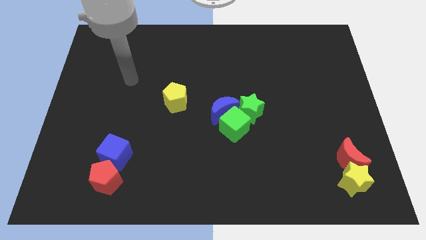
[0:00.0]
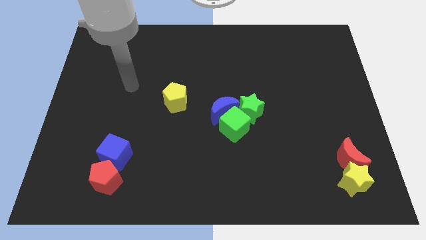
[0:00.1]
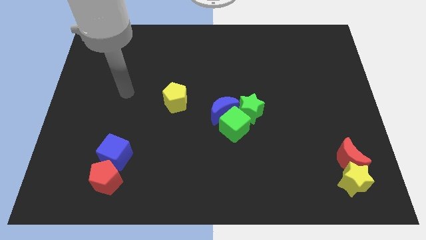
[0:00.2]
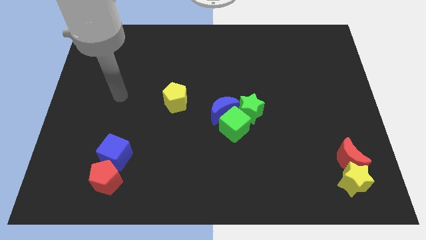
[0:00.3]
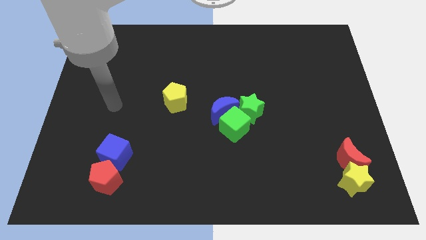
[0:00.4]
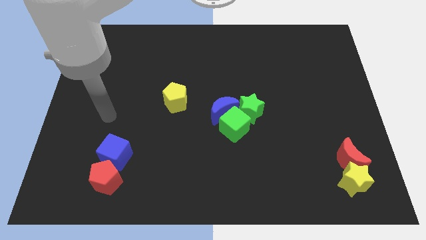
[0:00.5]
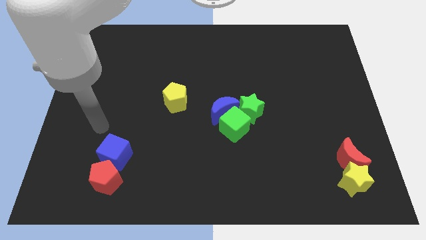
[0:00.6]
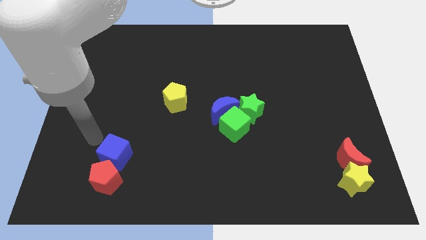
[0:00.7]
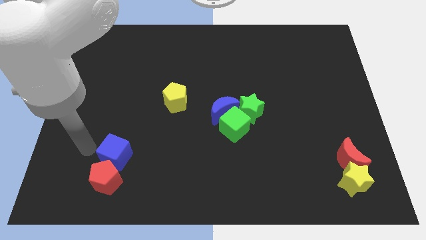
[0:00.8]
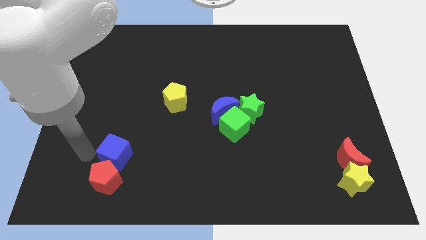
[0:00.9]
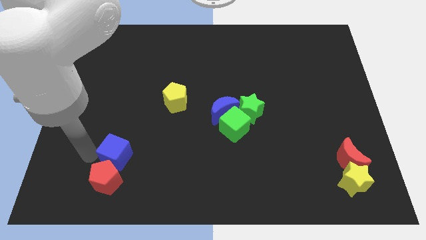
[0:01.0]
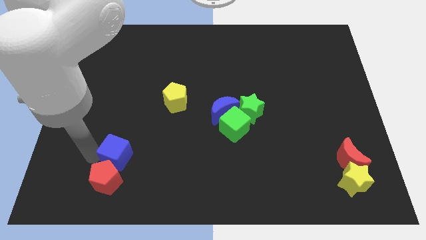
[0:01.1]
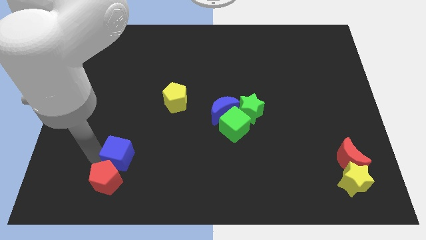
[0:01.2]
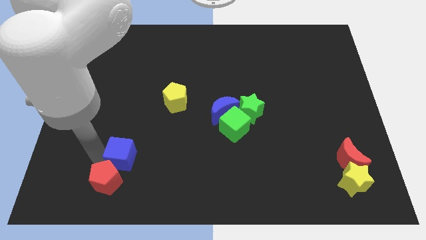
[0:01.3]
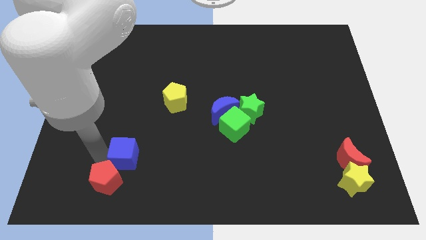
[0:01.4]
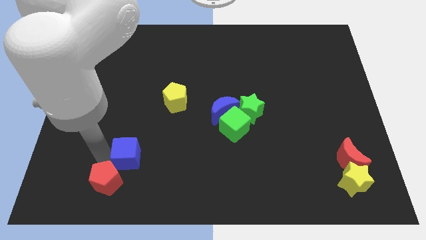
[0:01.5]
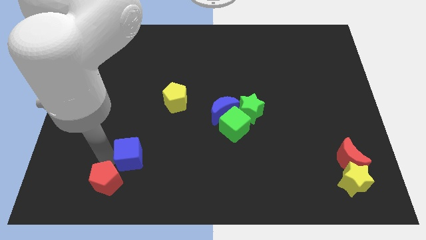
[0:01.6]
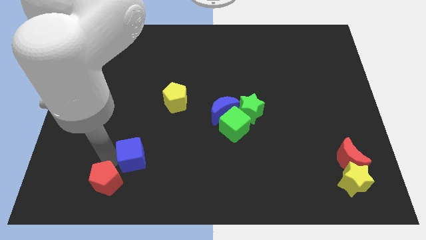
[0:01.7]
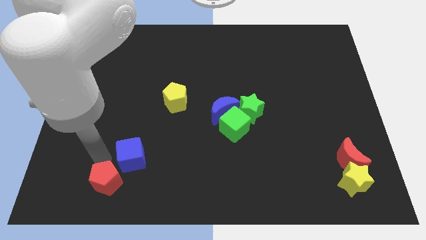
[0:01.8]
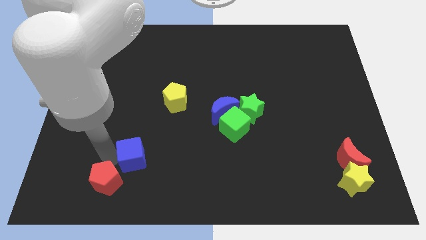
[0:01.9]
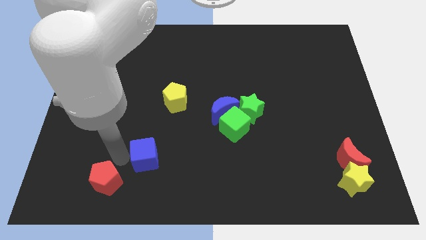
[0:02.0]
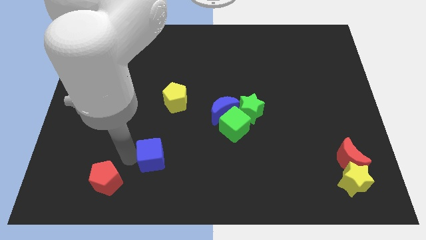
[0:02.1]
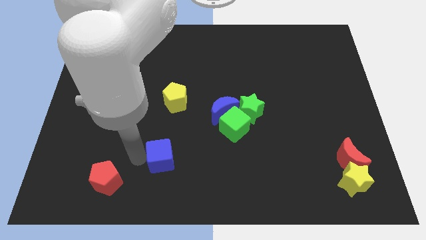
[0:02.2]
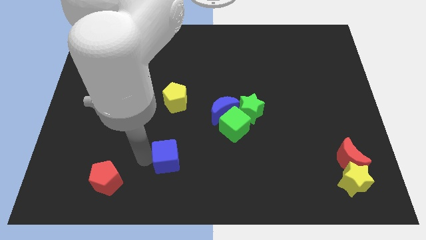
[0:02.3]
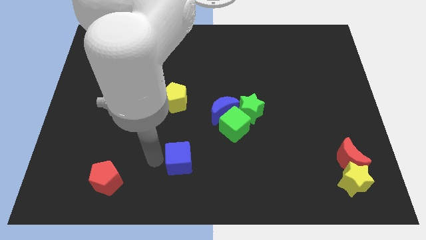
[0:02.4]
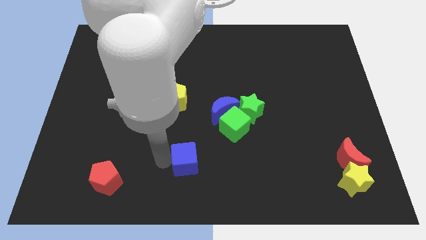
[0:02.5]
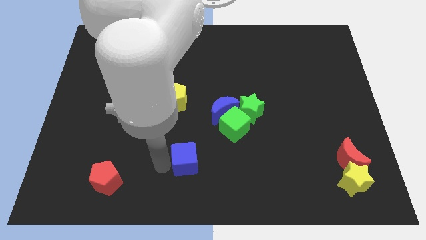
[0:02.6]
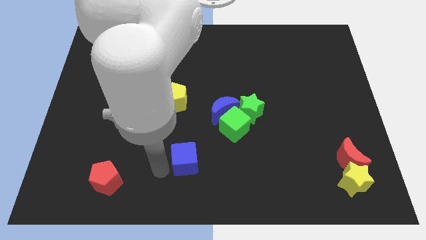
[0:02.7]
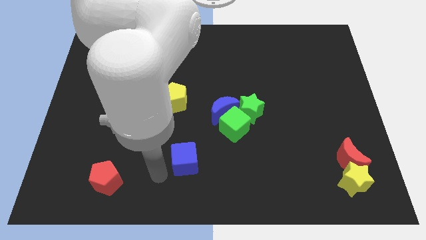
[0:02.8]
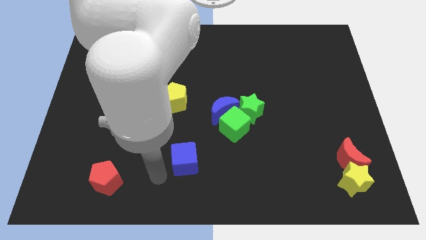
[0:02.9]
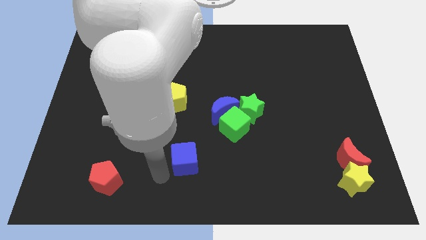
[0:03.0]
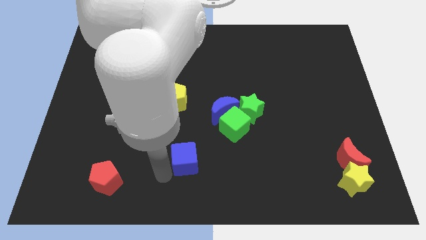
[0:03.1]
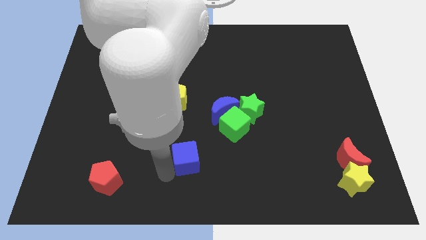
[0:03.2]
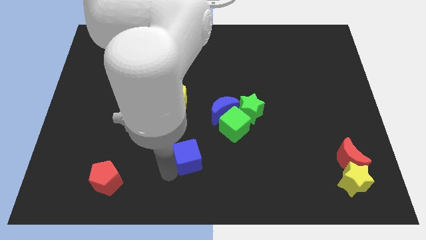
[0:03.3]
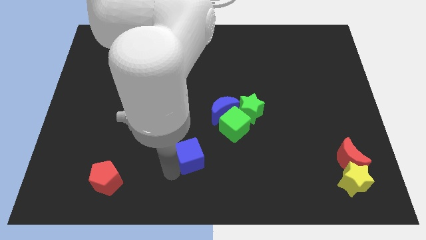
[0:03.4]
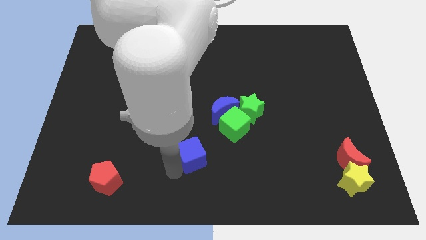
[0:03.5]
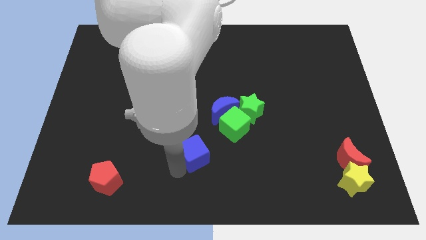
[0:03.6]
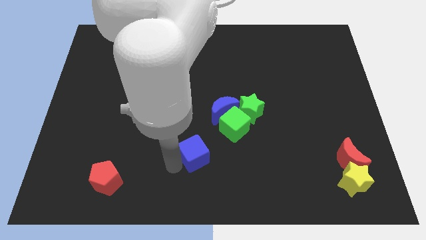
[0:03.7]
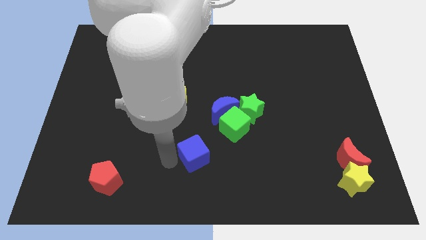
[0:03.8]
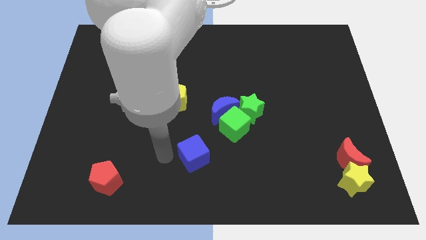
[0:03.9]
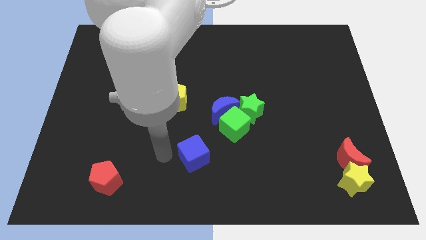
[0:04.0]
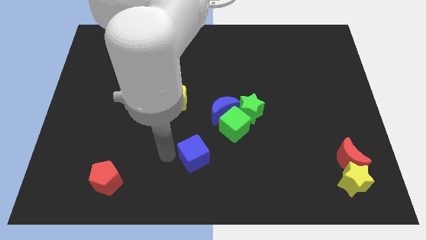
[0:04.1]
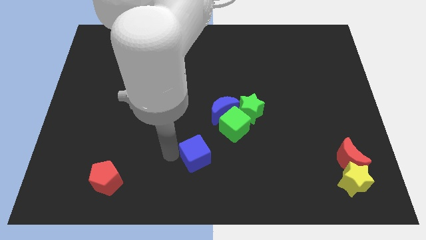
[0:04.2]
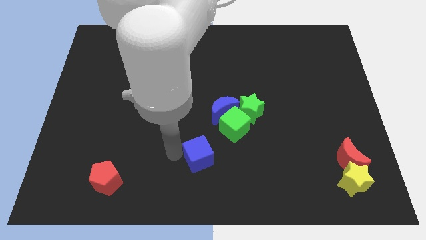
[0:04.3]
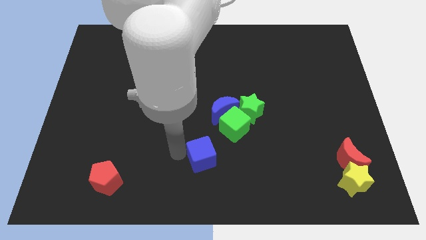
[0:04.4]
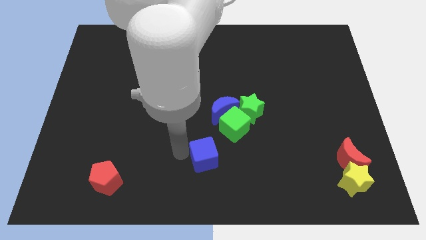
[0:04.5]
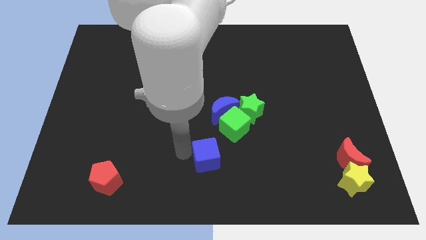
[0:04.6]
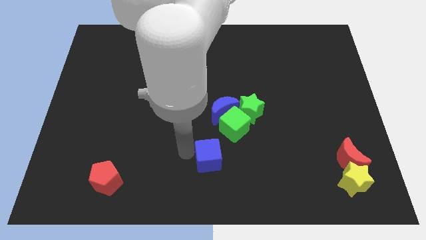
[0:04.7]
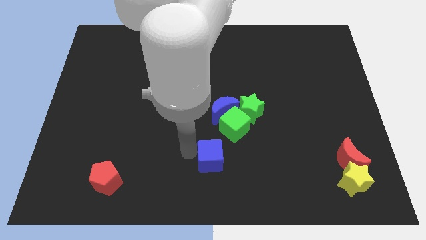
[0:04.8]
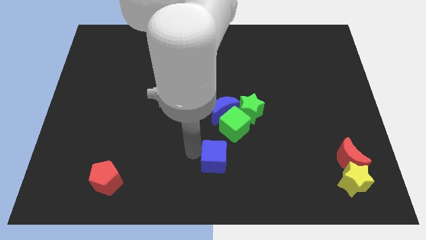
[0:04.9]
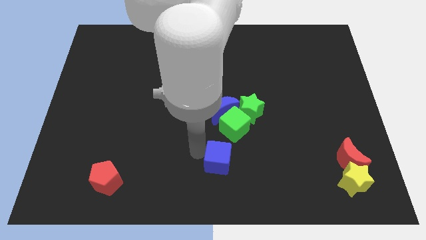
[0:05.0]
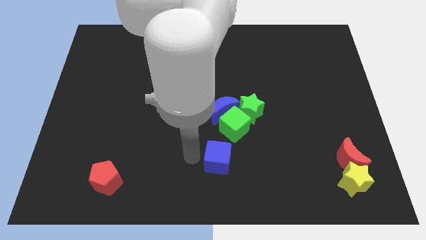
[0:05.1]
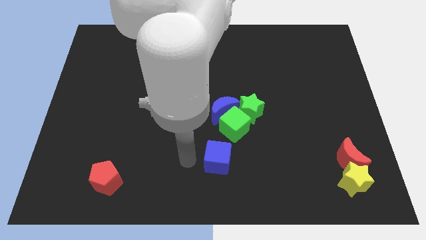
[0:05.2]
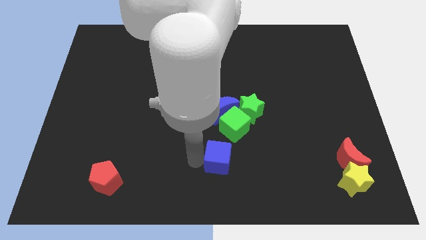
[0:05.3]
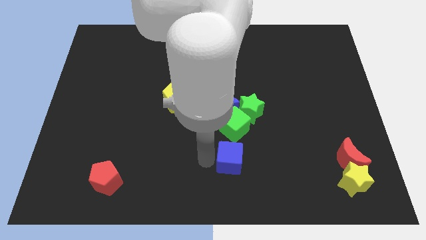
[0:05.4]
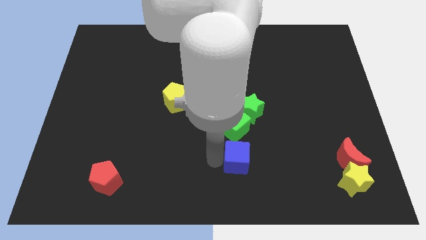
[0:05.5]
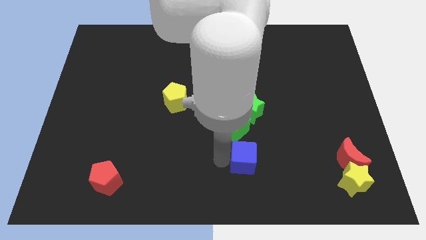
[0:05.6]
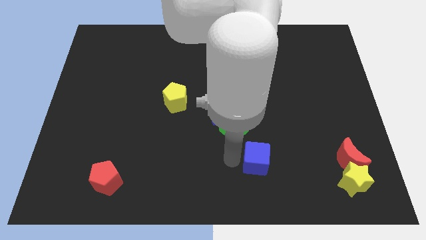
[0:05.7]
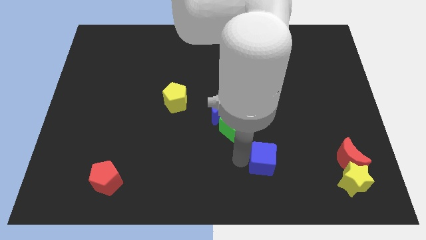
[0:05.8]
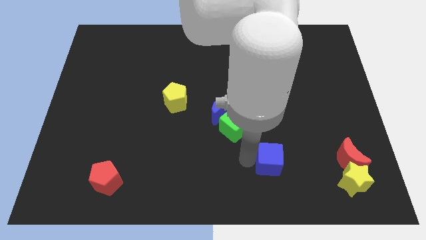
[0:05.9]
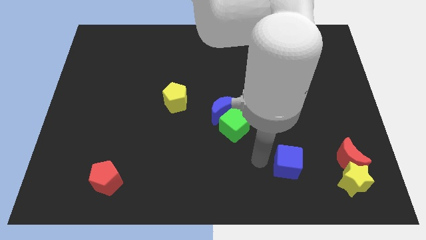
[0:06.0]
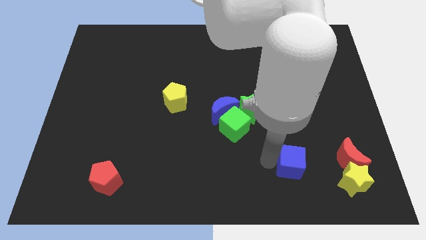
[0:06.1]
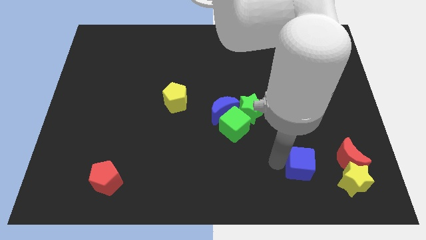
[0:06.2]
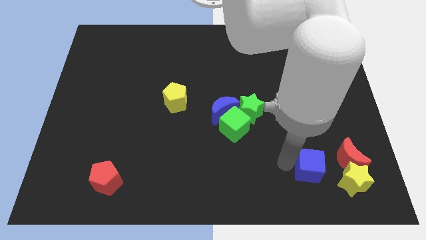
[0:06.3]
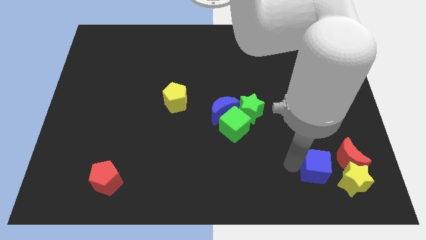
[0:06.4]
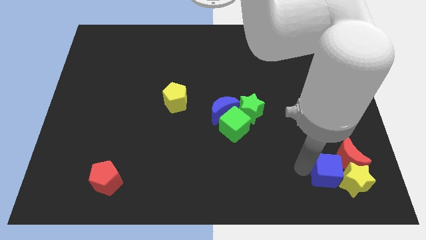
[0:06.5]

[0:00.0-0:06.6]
slide the blue cube next to the red moon
